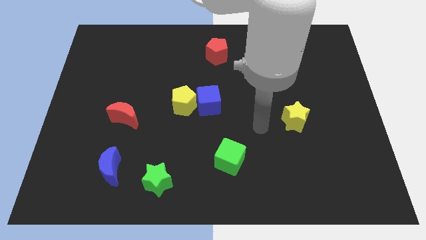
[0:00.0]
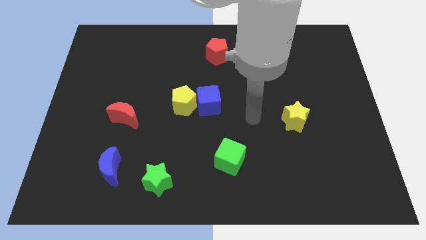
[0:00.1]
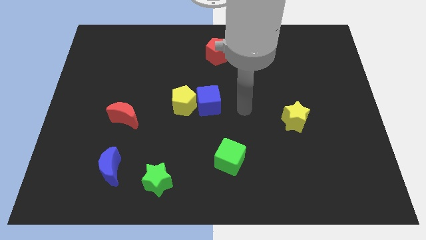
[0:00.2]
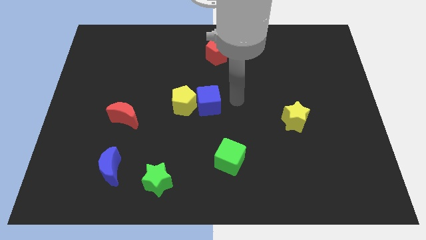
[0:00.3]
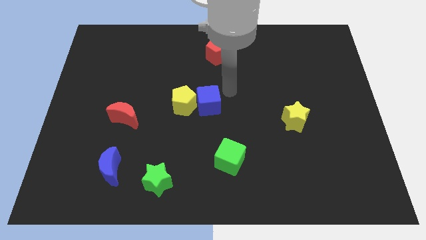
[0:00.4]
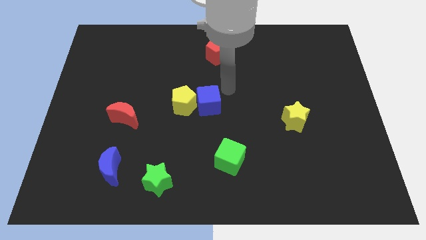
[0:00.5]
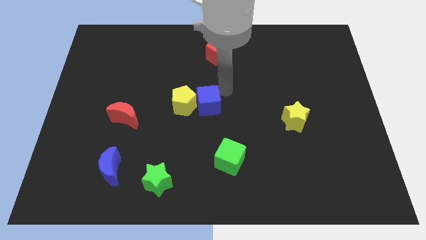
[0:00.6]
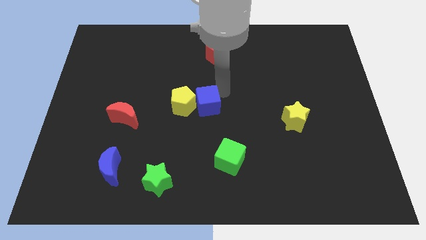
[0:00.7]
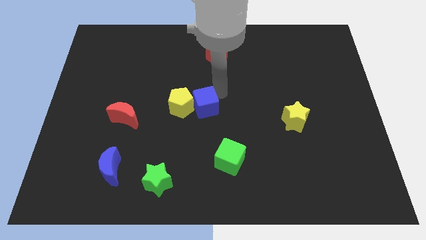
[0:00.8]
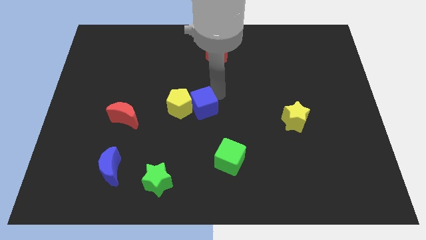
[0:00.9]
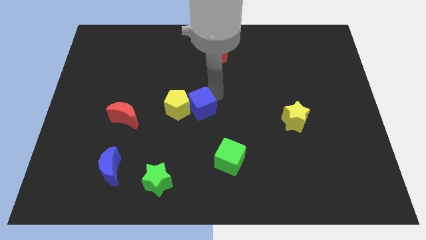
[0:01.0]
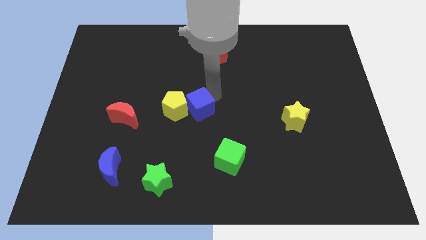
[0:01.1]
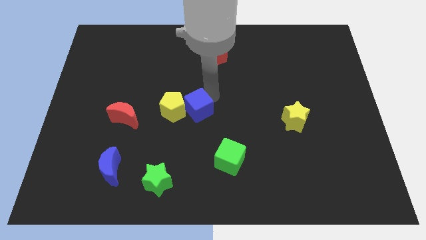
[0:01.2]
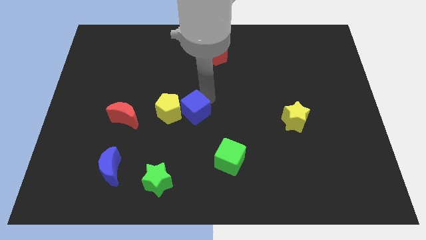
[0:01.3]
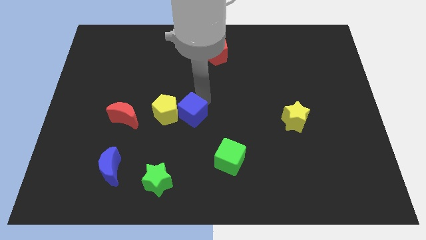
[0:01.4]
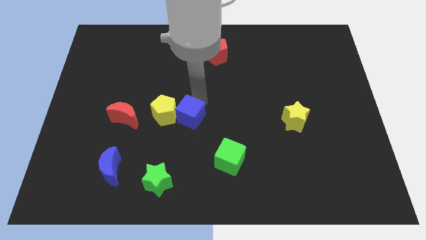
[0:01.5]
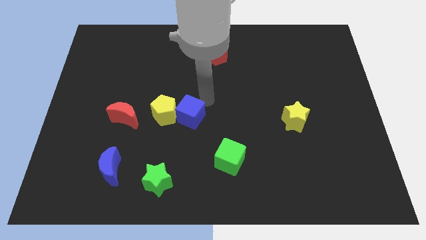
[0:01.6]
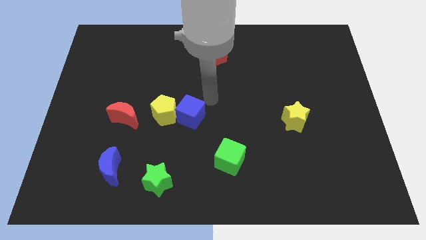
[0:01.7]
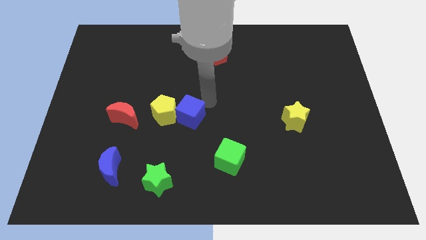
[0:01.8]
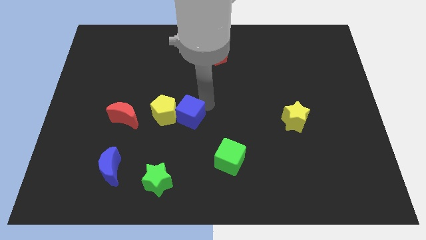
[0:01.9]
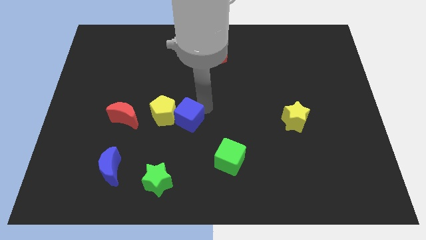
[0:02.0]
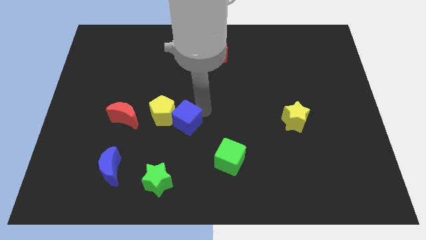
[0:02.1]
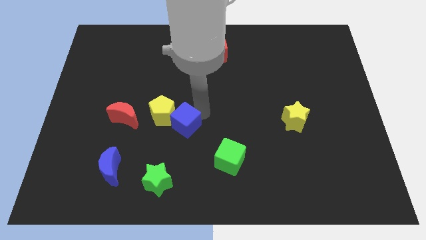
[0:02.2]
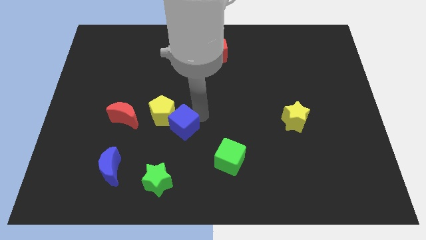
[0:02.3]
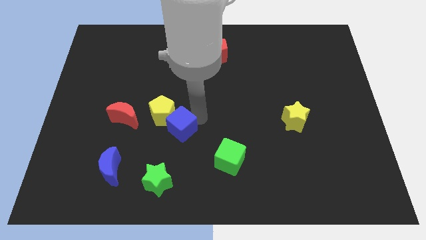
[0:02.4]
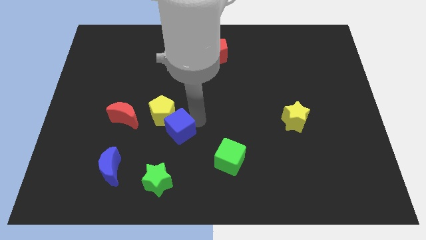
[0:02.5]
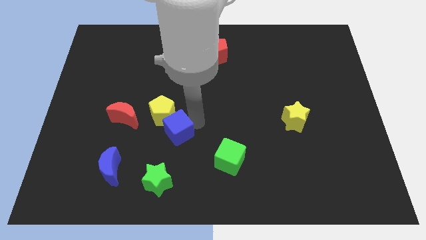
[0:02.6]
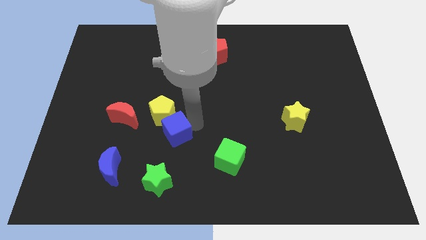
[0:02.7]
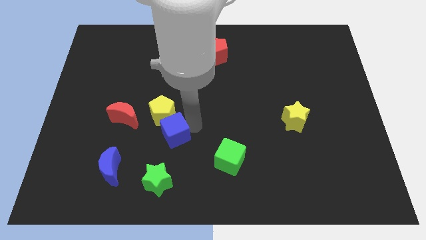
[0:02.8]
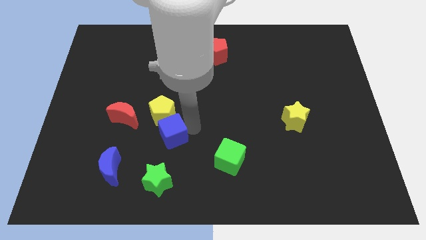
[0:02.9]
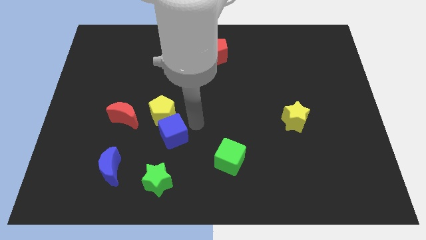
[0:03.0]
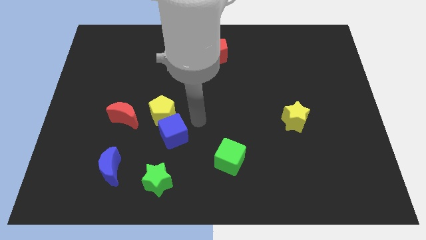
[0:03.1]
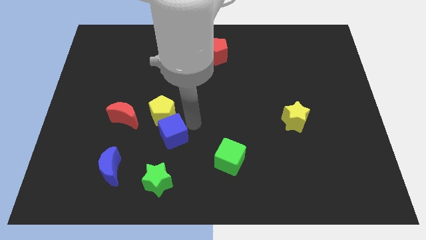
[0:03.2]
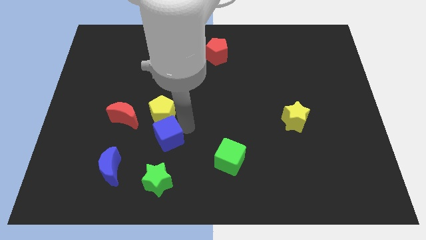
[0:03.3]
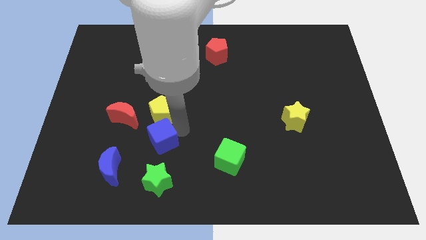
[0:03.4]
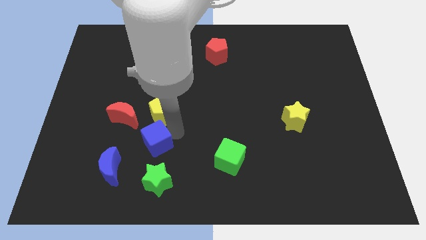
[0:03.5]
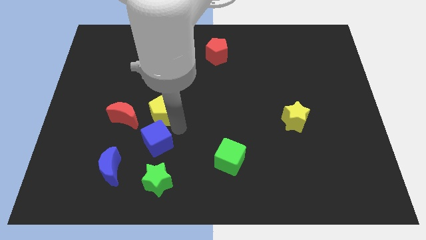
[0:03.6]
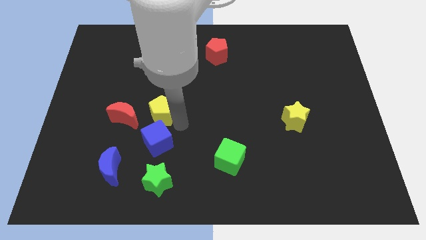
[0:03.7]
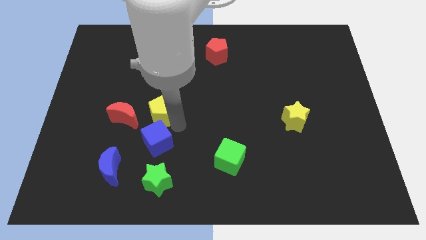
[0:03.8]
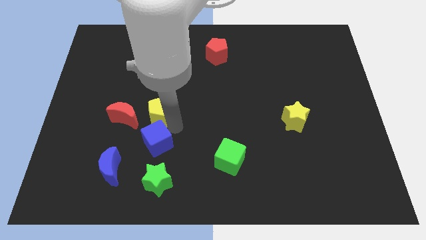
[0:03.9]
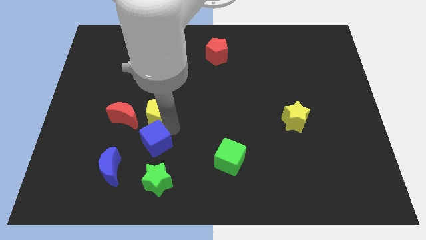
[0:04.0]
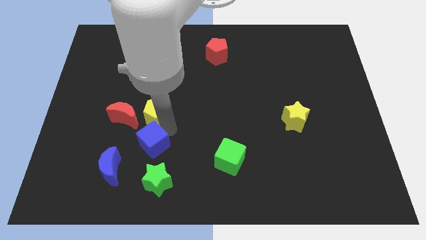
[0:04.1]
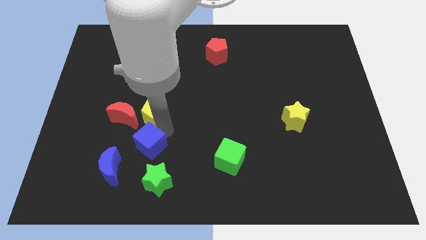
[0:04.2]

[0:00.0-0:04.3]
put the blue cube diagonally up and to the left of the green star

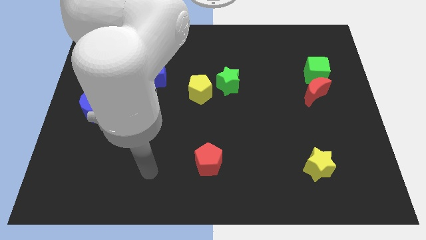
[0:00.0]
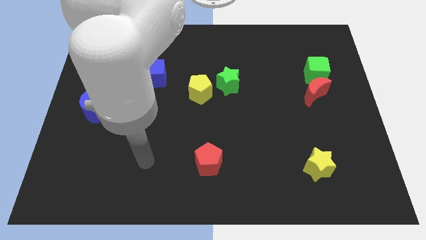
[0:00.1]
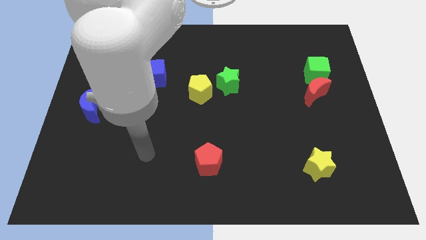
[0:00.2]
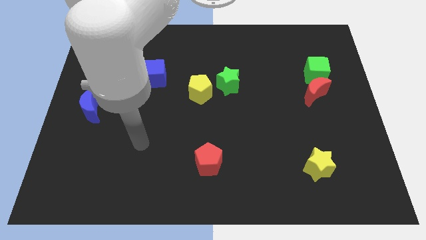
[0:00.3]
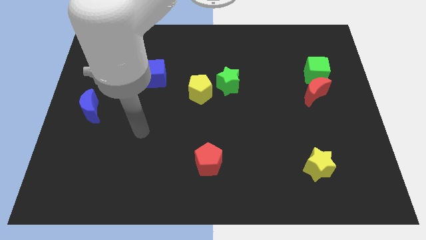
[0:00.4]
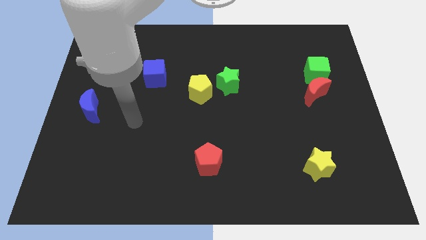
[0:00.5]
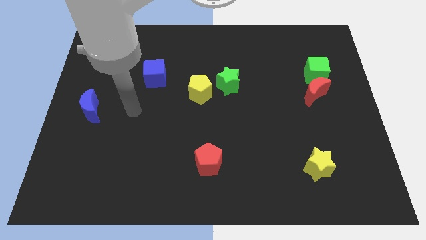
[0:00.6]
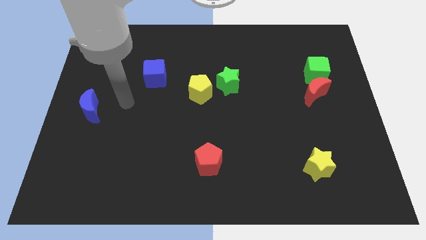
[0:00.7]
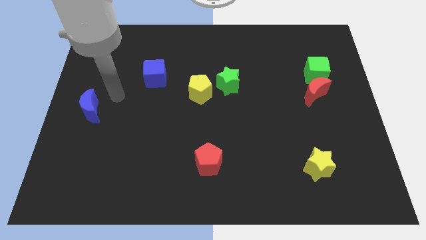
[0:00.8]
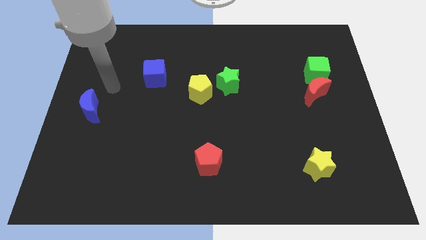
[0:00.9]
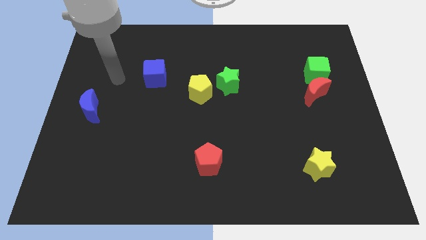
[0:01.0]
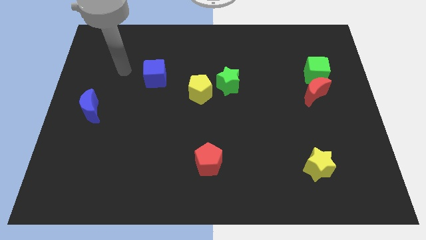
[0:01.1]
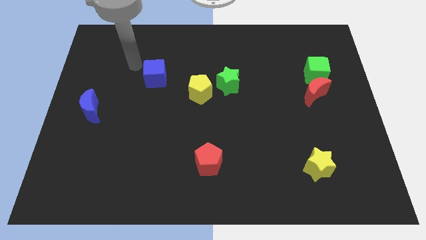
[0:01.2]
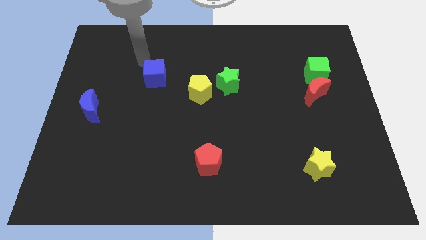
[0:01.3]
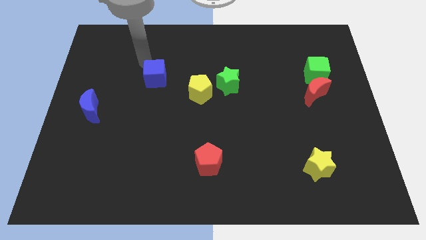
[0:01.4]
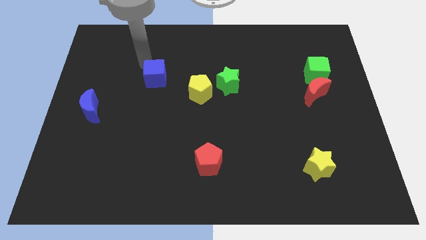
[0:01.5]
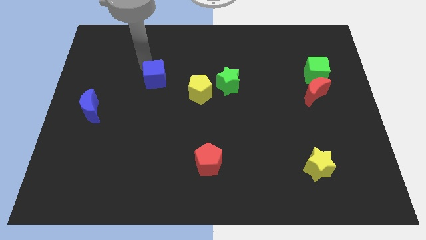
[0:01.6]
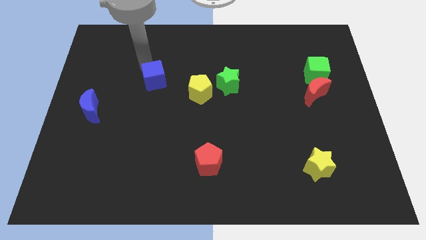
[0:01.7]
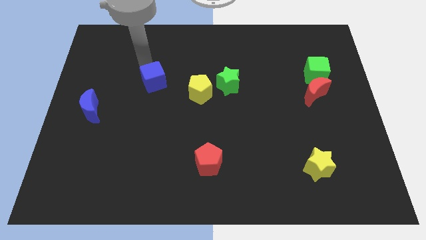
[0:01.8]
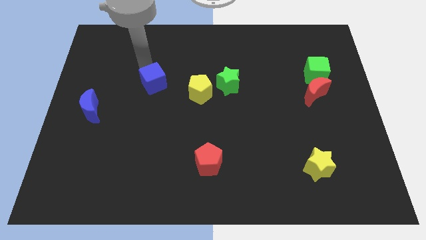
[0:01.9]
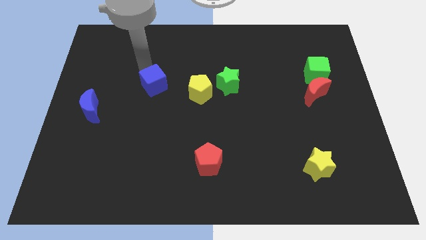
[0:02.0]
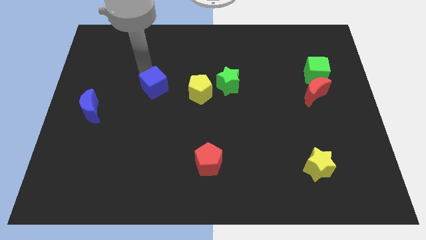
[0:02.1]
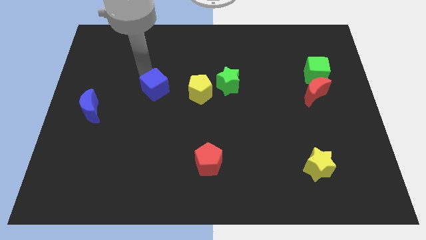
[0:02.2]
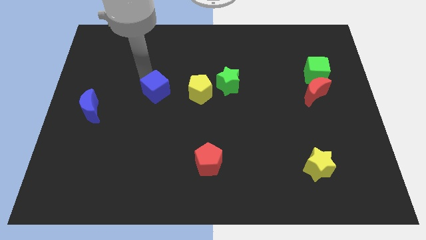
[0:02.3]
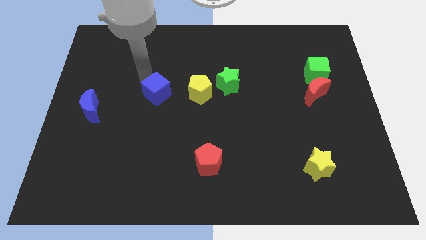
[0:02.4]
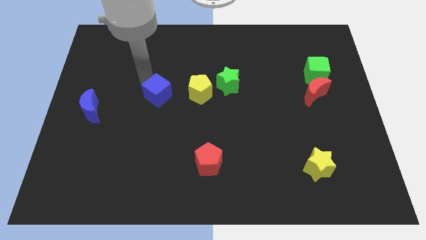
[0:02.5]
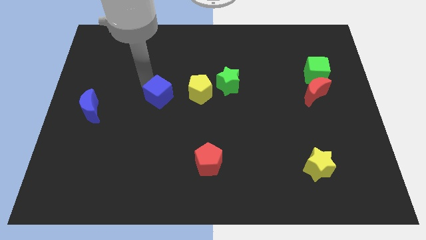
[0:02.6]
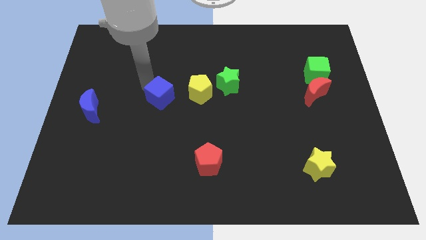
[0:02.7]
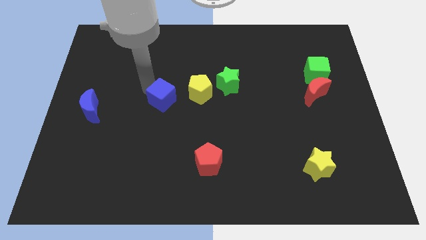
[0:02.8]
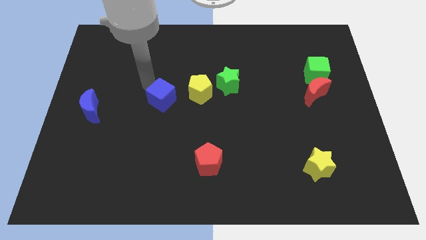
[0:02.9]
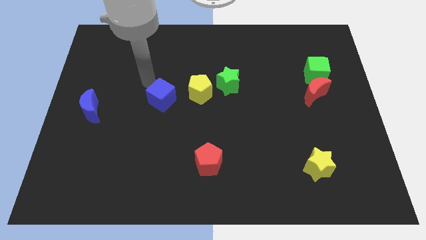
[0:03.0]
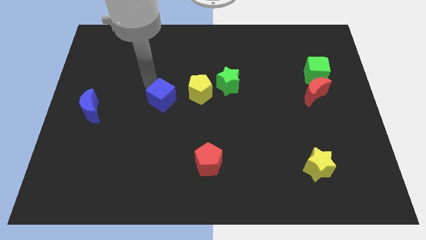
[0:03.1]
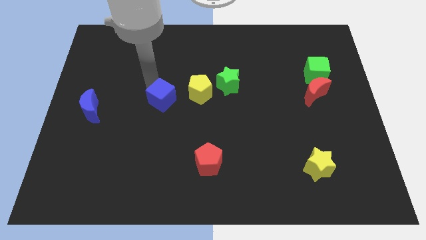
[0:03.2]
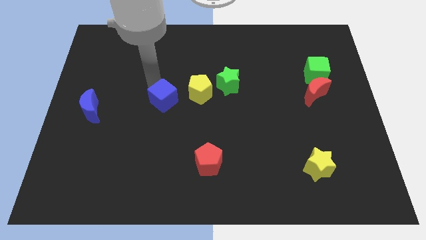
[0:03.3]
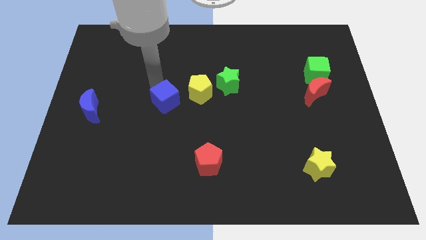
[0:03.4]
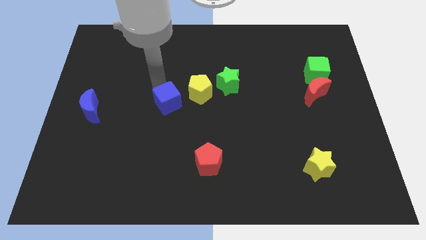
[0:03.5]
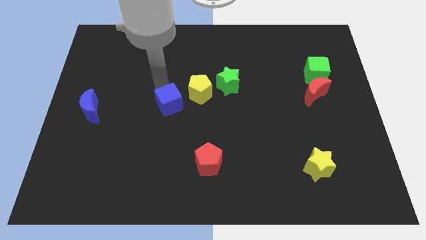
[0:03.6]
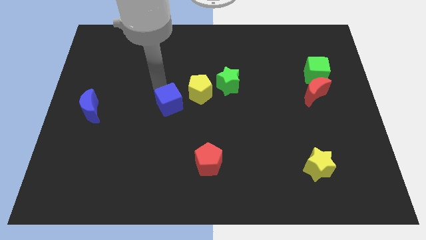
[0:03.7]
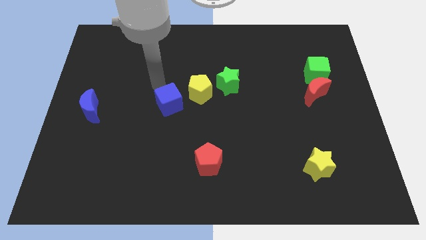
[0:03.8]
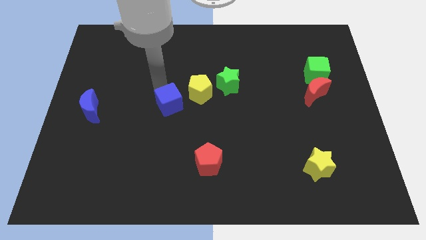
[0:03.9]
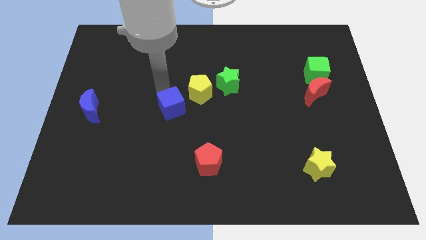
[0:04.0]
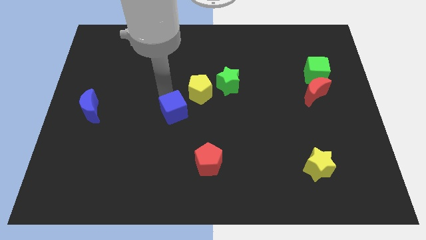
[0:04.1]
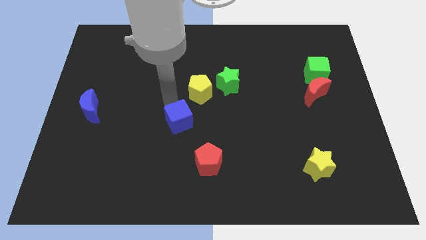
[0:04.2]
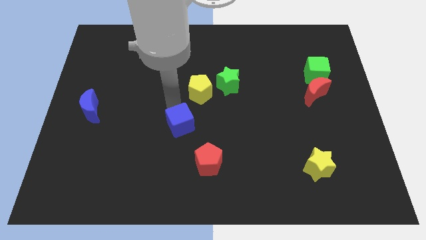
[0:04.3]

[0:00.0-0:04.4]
move the blue cube diagonally up and to the left of the red pentagon
